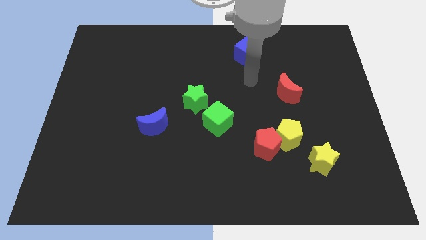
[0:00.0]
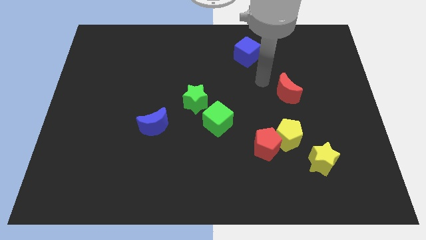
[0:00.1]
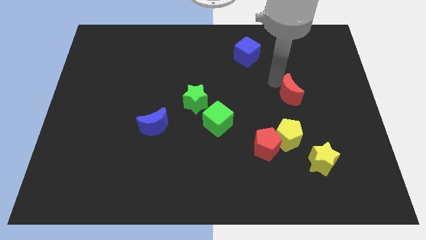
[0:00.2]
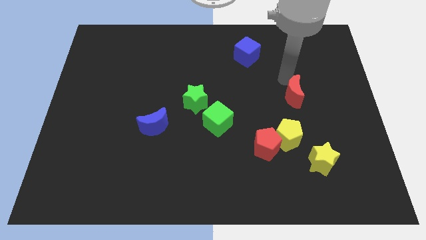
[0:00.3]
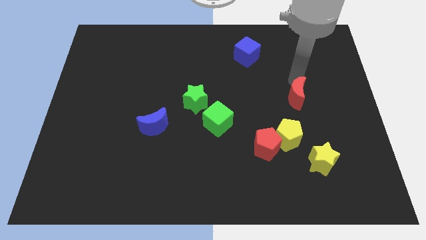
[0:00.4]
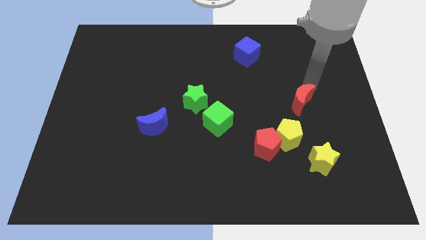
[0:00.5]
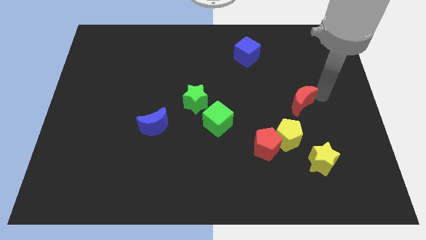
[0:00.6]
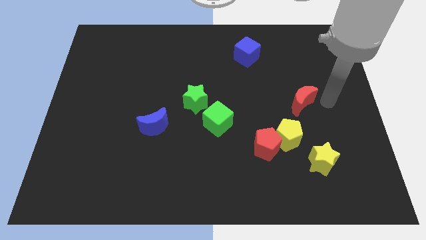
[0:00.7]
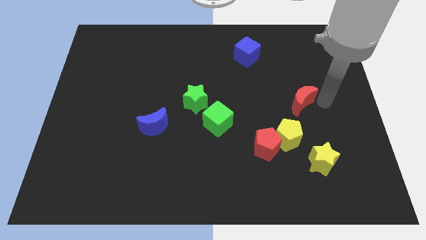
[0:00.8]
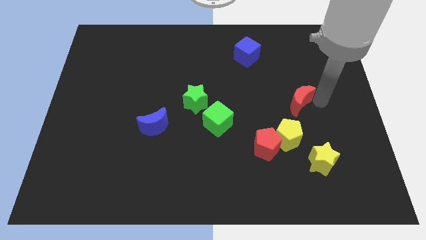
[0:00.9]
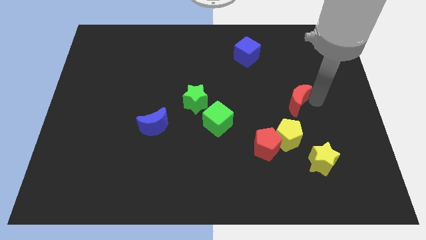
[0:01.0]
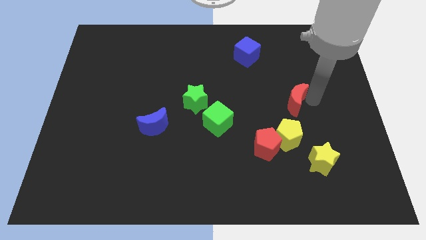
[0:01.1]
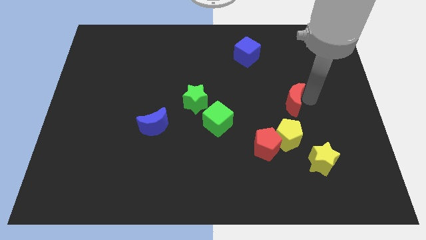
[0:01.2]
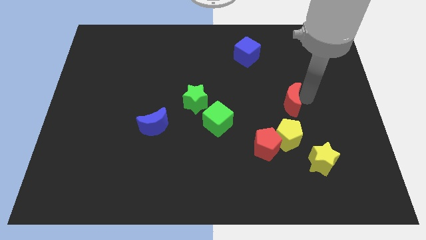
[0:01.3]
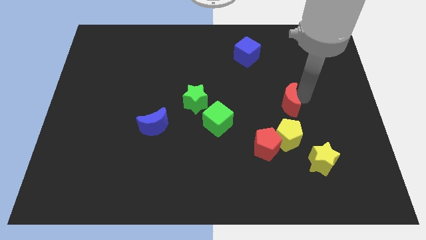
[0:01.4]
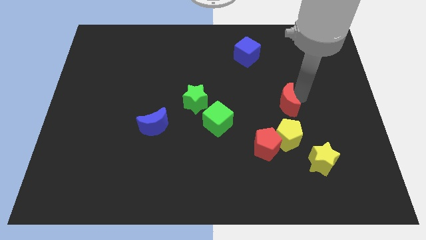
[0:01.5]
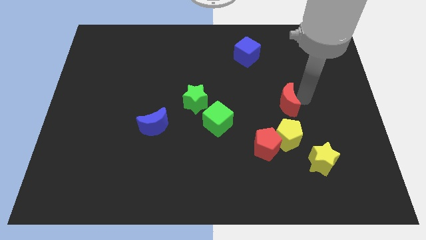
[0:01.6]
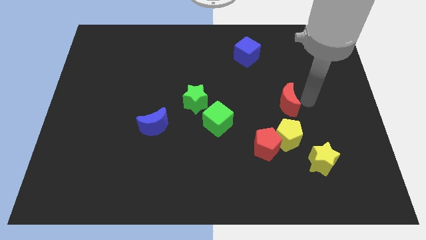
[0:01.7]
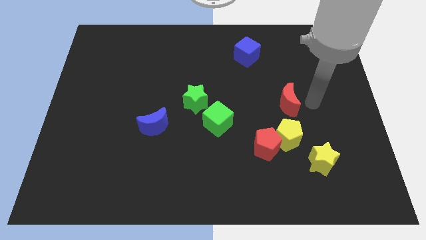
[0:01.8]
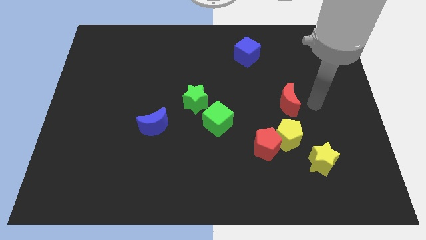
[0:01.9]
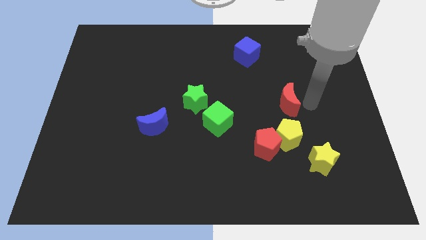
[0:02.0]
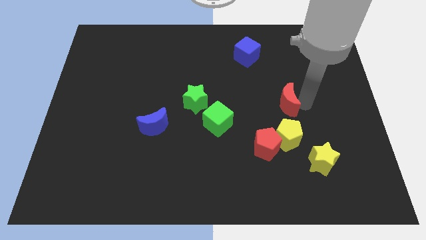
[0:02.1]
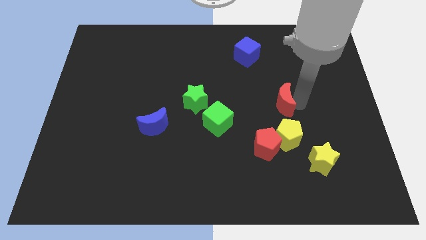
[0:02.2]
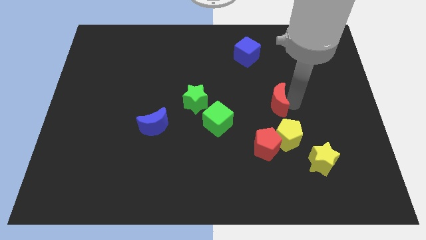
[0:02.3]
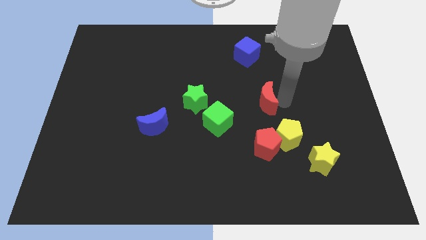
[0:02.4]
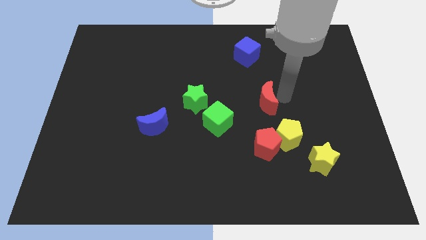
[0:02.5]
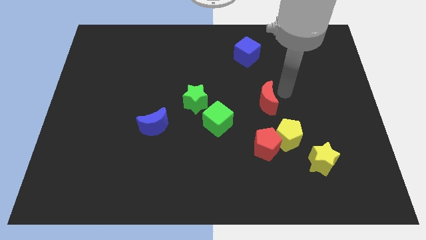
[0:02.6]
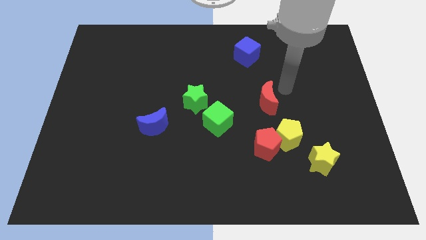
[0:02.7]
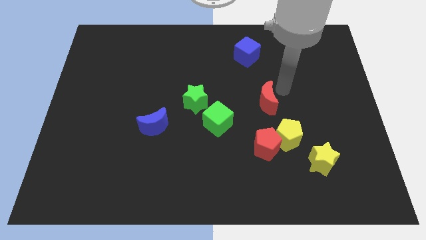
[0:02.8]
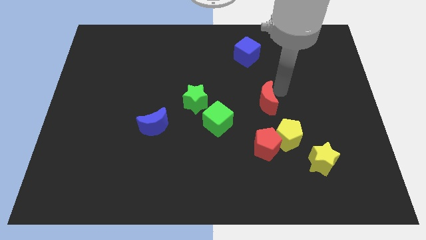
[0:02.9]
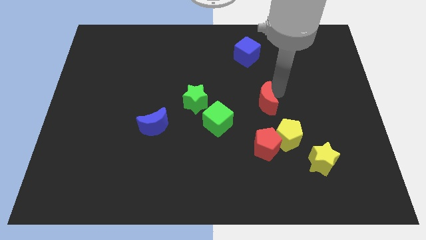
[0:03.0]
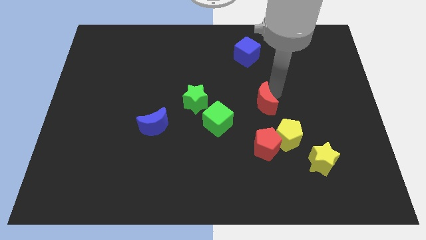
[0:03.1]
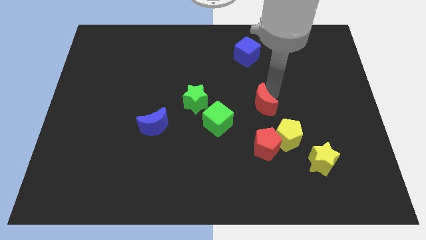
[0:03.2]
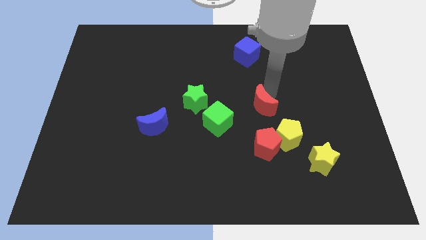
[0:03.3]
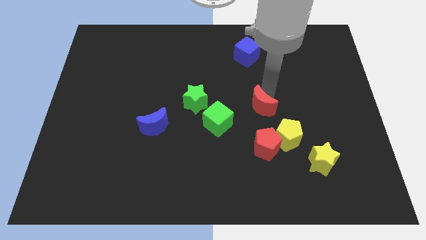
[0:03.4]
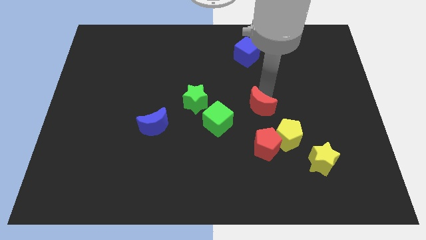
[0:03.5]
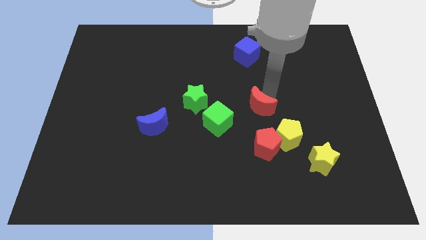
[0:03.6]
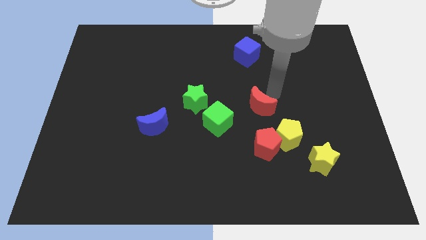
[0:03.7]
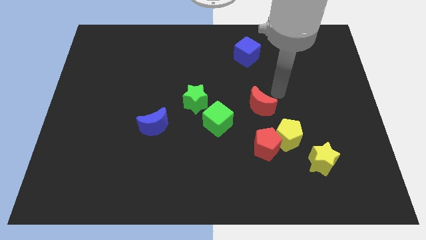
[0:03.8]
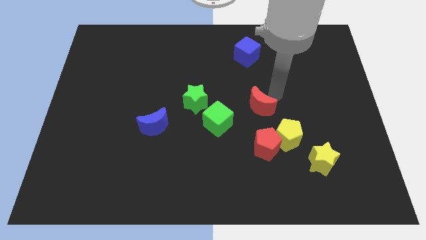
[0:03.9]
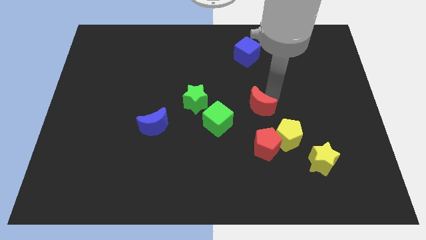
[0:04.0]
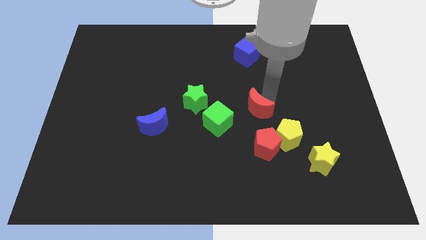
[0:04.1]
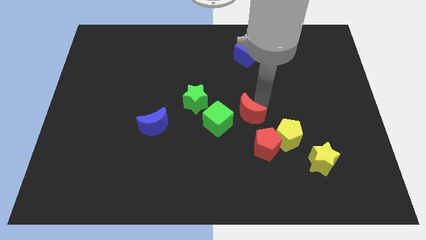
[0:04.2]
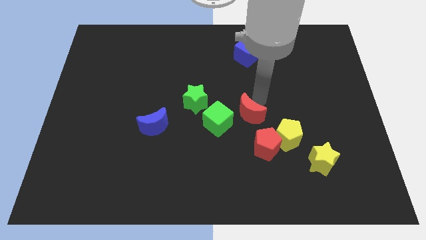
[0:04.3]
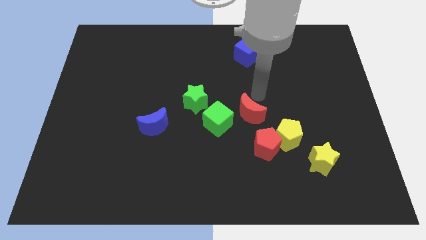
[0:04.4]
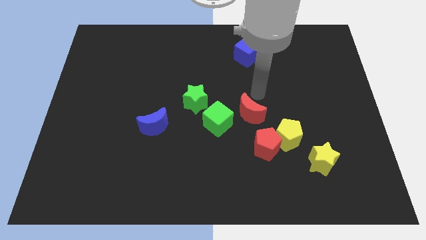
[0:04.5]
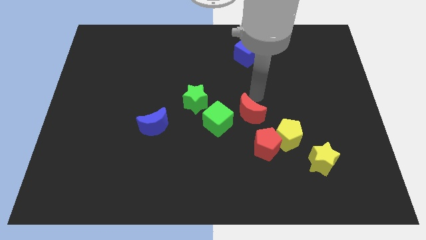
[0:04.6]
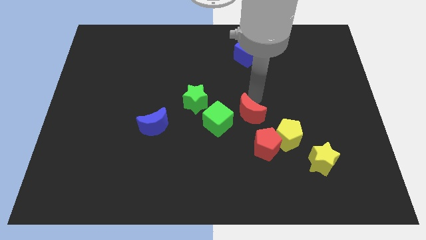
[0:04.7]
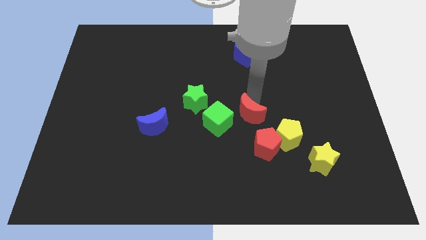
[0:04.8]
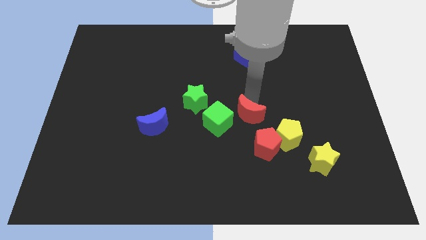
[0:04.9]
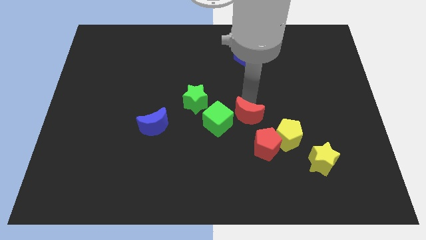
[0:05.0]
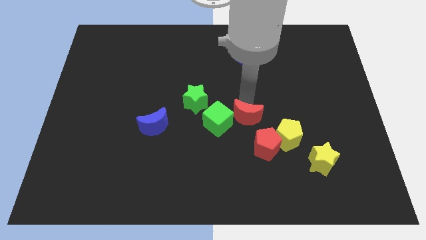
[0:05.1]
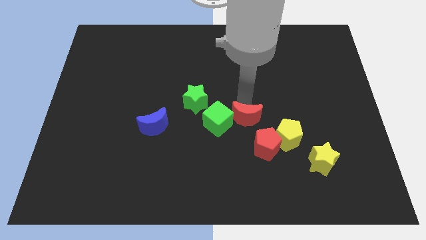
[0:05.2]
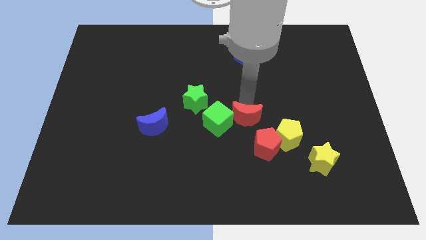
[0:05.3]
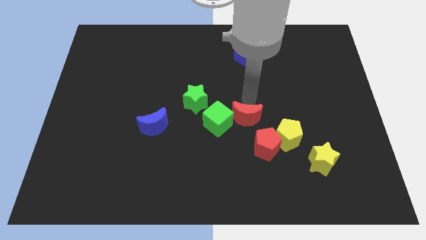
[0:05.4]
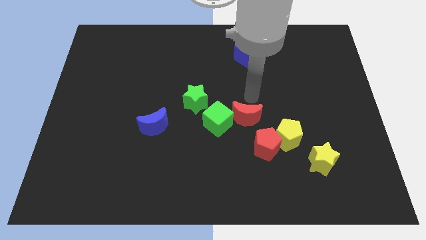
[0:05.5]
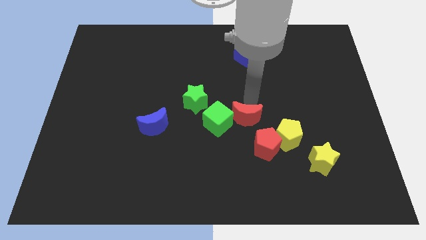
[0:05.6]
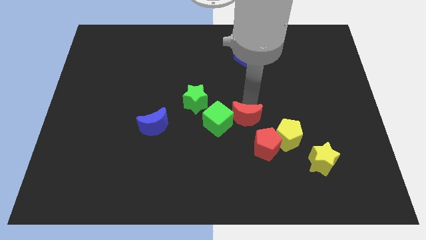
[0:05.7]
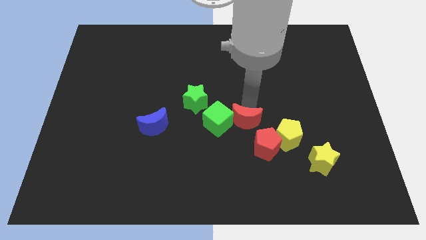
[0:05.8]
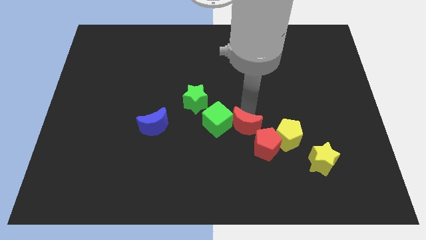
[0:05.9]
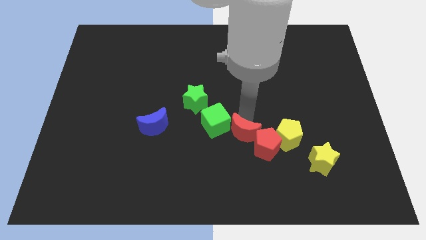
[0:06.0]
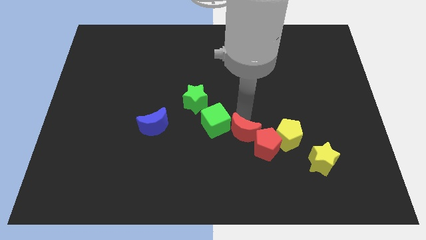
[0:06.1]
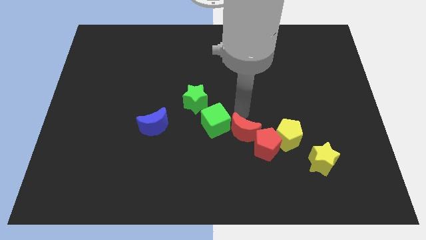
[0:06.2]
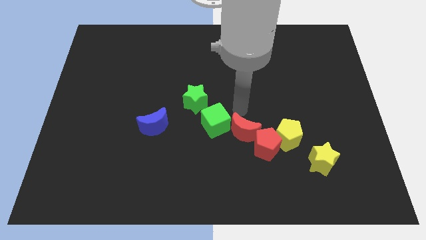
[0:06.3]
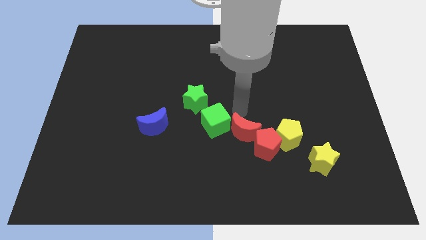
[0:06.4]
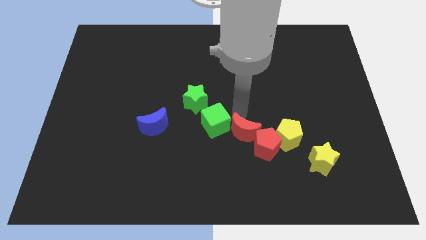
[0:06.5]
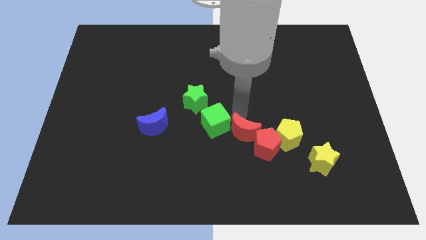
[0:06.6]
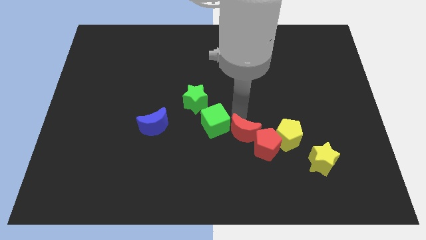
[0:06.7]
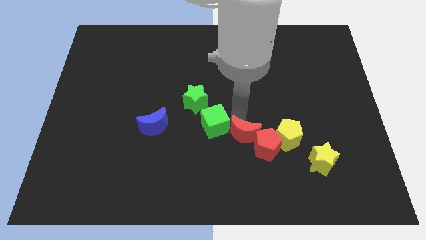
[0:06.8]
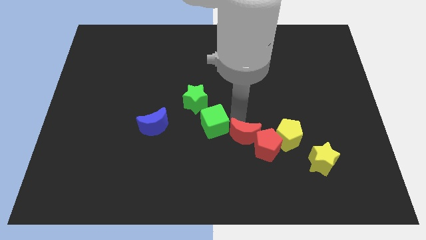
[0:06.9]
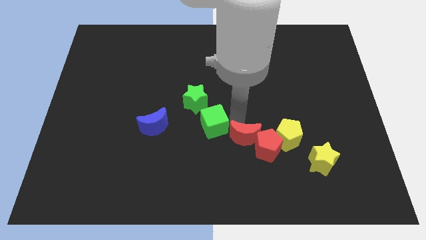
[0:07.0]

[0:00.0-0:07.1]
move the red moon down a bit

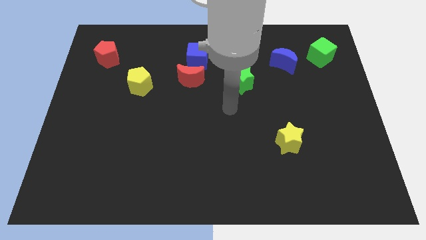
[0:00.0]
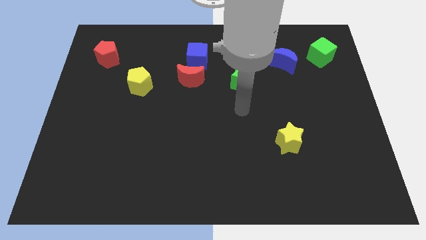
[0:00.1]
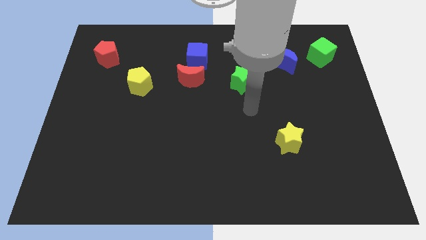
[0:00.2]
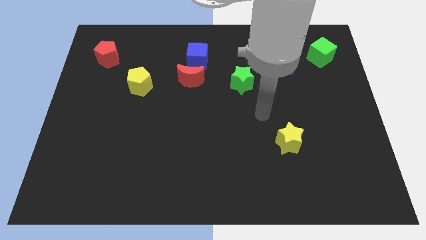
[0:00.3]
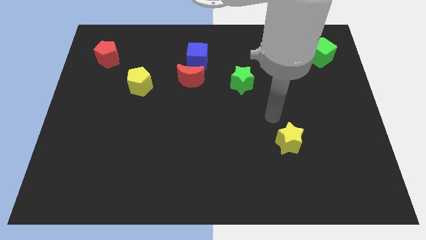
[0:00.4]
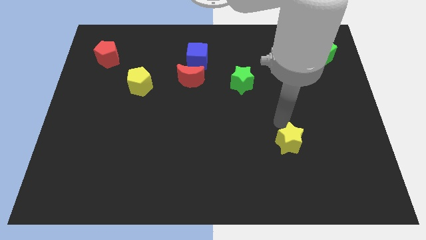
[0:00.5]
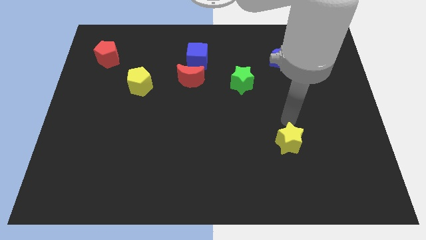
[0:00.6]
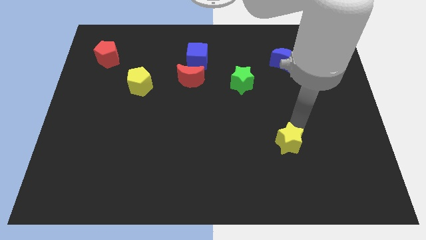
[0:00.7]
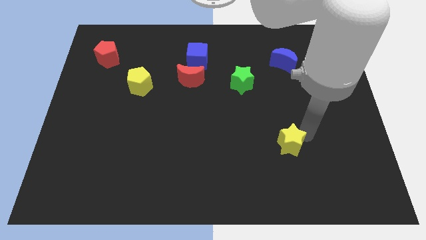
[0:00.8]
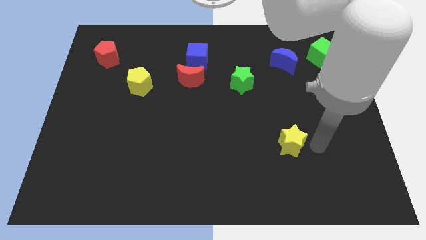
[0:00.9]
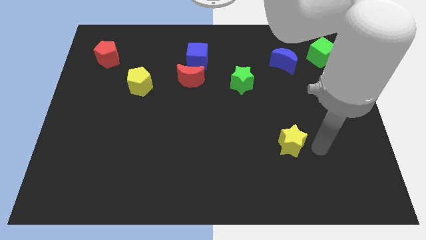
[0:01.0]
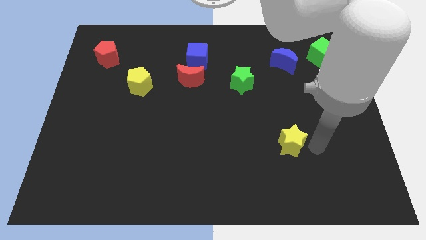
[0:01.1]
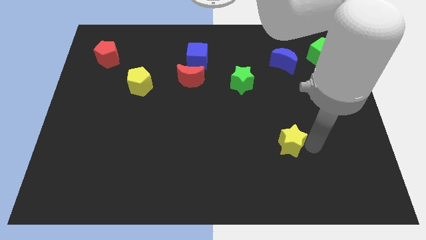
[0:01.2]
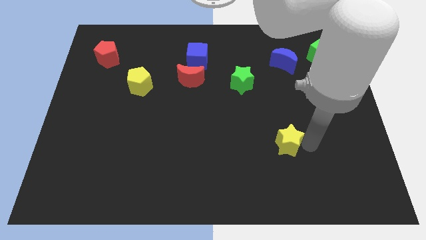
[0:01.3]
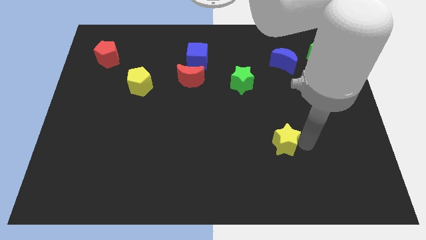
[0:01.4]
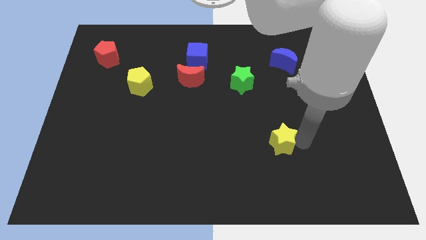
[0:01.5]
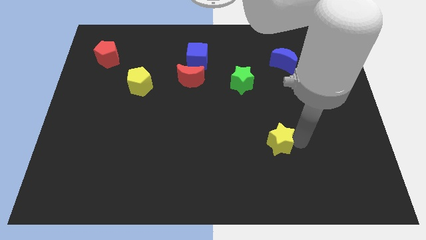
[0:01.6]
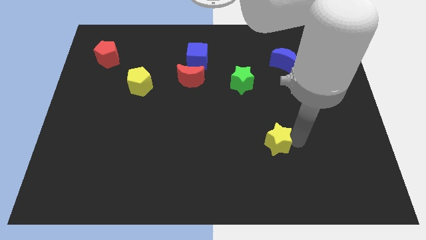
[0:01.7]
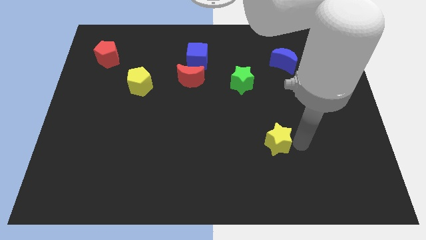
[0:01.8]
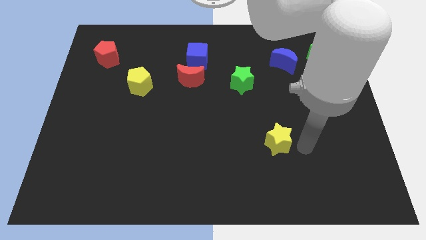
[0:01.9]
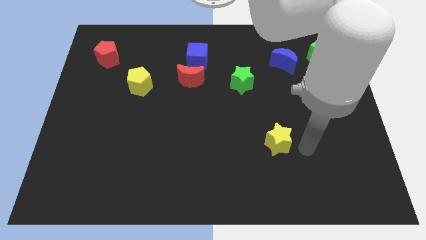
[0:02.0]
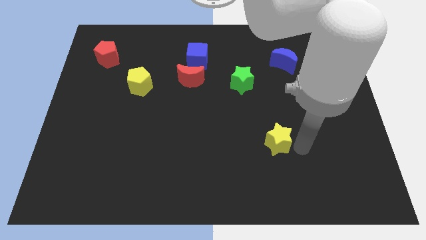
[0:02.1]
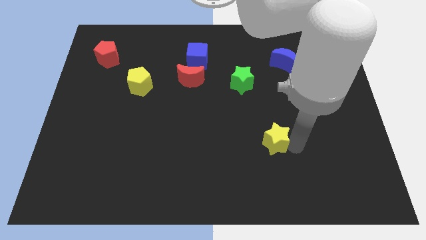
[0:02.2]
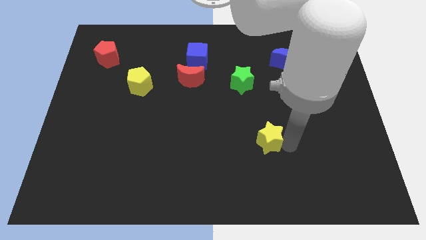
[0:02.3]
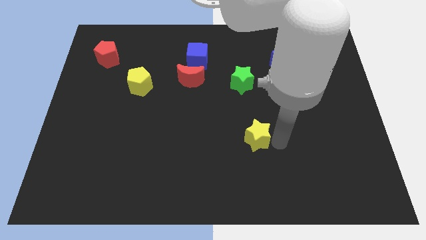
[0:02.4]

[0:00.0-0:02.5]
slightly move the yellow star left
